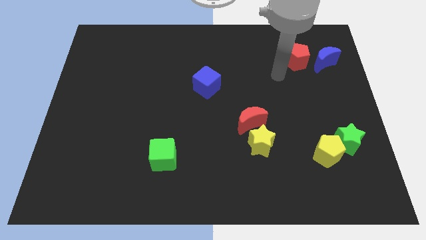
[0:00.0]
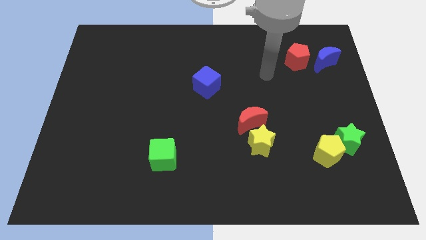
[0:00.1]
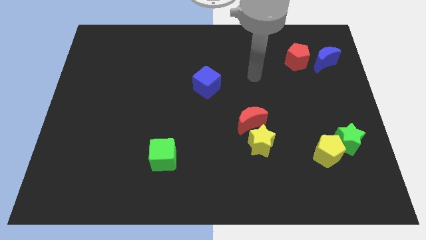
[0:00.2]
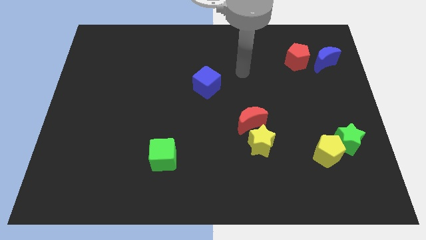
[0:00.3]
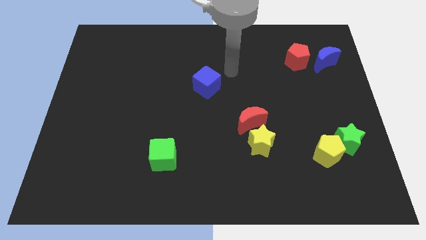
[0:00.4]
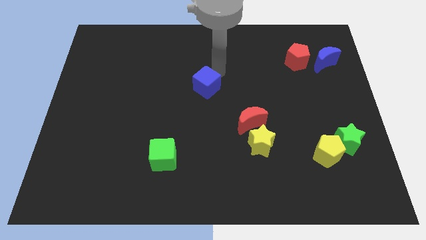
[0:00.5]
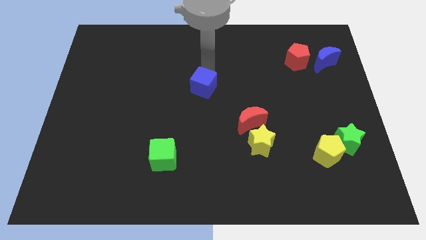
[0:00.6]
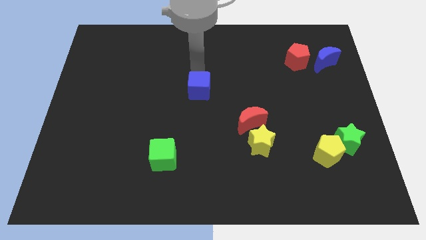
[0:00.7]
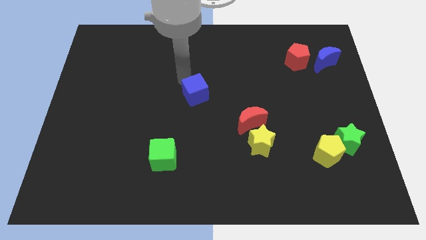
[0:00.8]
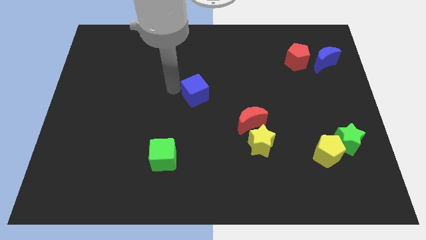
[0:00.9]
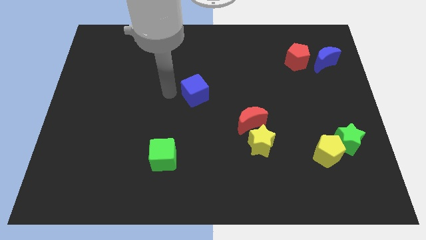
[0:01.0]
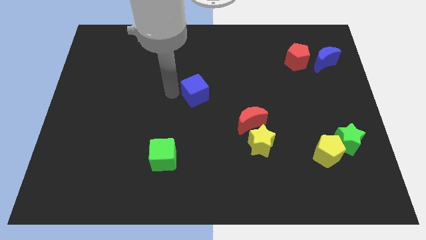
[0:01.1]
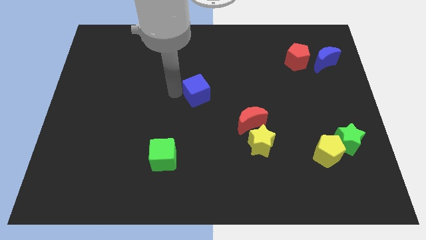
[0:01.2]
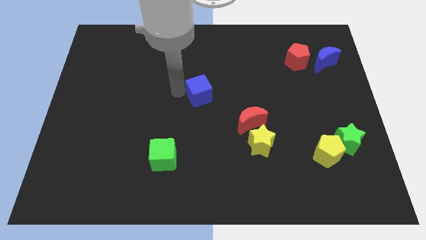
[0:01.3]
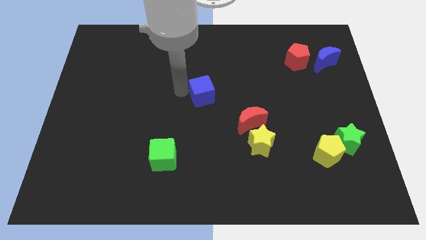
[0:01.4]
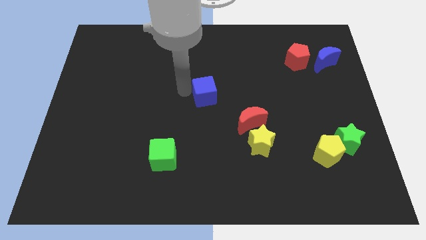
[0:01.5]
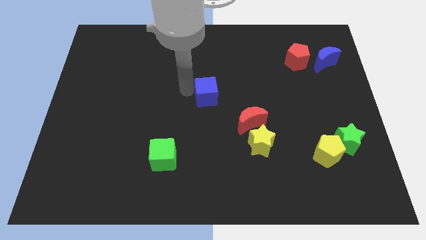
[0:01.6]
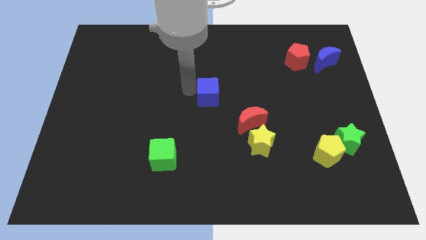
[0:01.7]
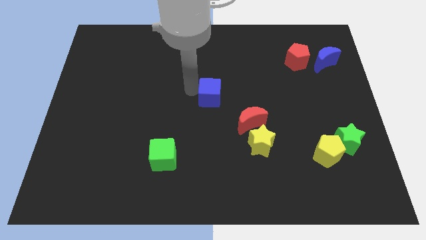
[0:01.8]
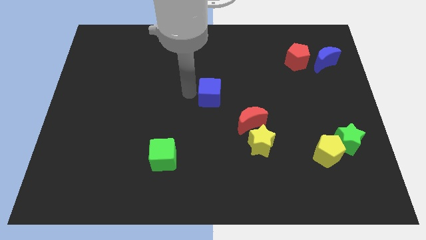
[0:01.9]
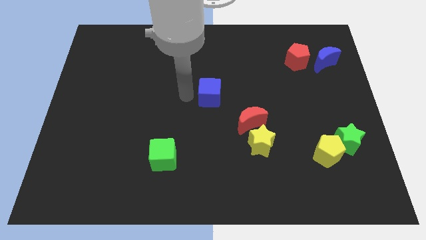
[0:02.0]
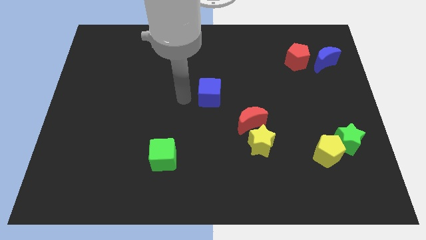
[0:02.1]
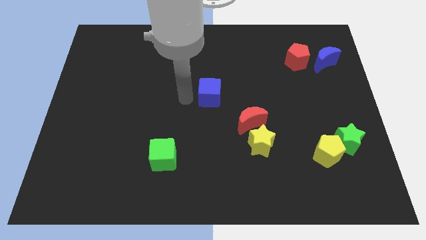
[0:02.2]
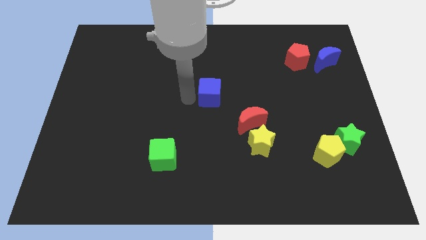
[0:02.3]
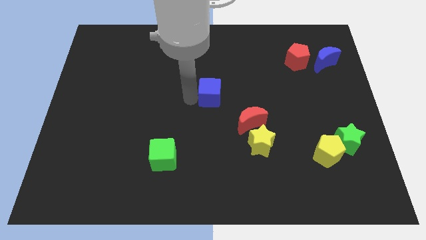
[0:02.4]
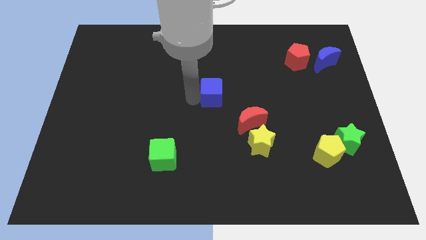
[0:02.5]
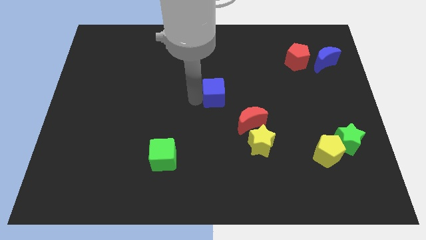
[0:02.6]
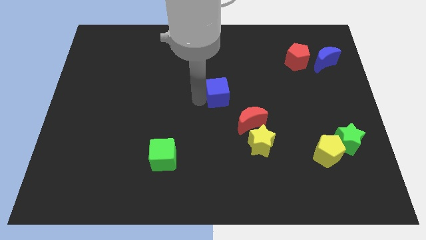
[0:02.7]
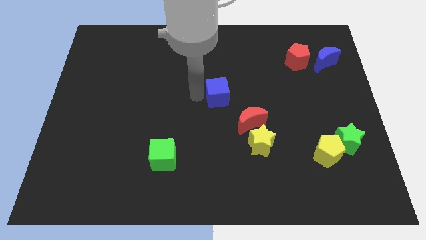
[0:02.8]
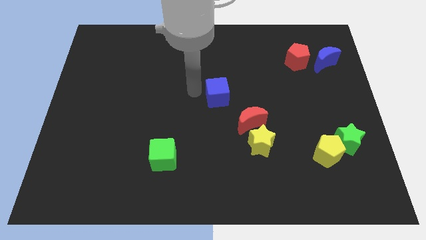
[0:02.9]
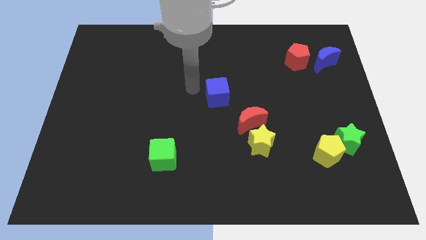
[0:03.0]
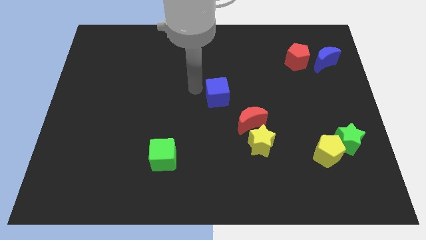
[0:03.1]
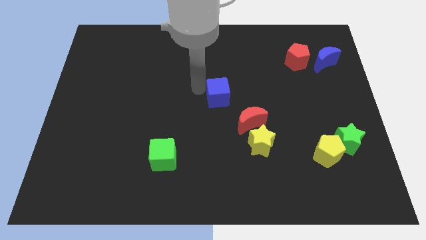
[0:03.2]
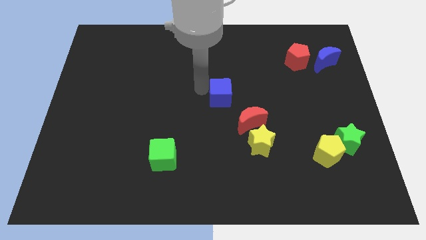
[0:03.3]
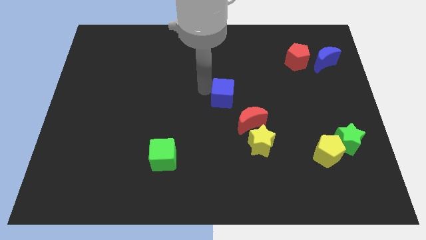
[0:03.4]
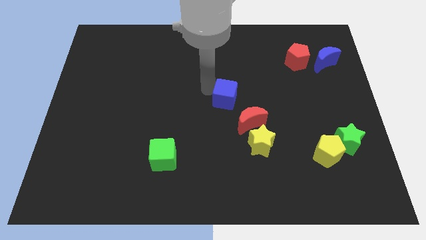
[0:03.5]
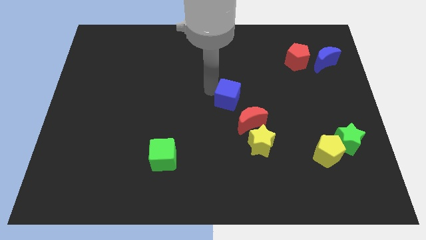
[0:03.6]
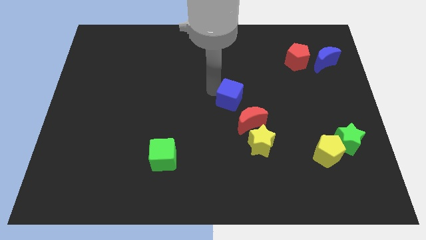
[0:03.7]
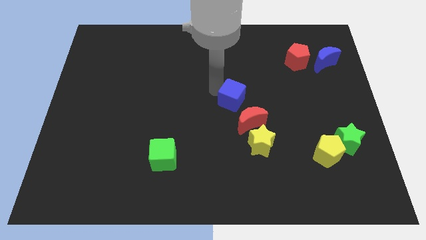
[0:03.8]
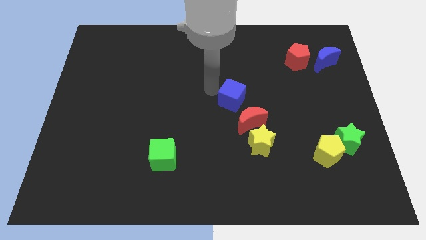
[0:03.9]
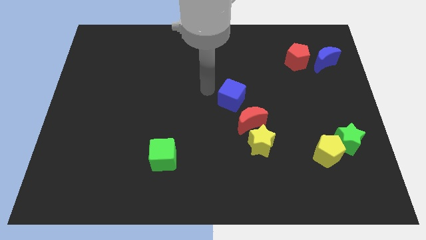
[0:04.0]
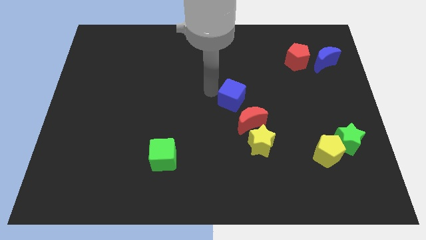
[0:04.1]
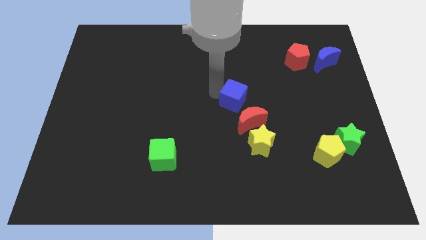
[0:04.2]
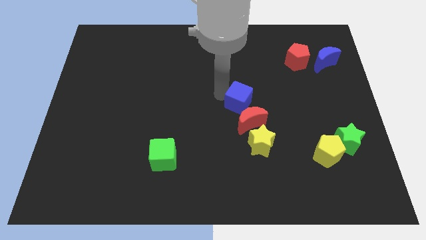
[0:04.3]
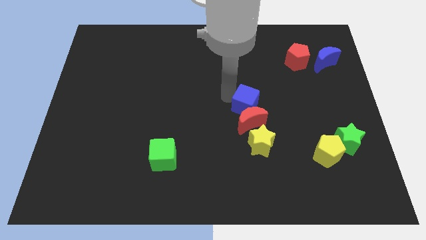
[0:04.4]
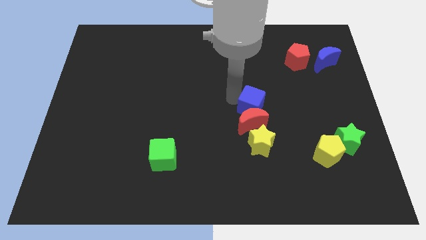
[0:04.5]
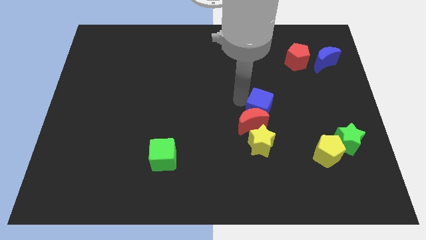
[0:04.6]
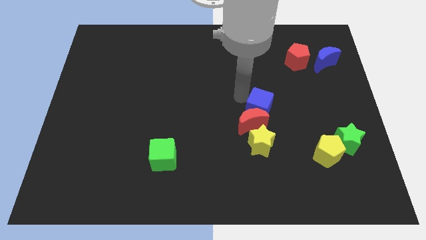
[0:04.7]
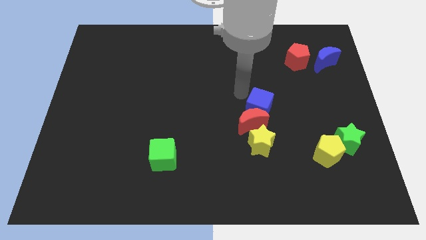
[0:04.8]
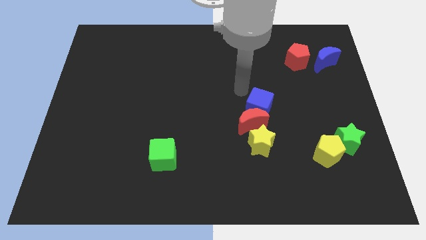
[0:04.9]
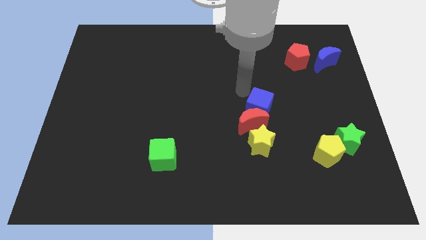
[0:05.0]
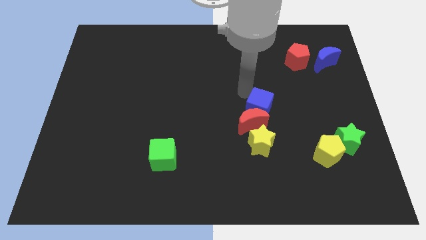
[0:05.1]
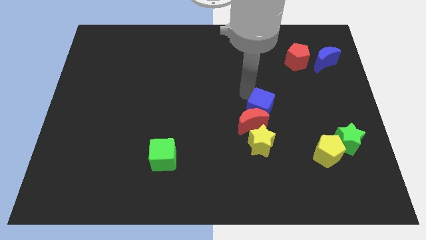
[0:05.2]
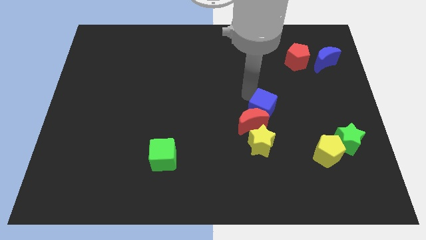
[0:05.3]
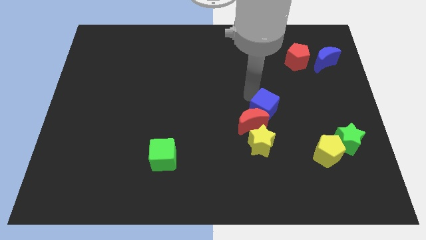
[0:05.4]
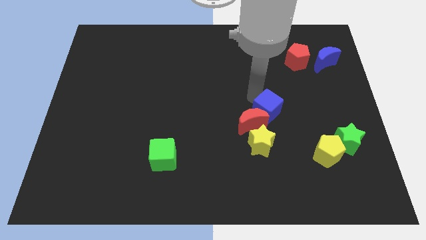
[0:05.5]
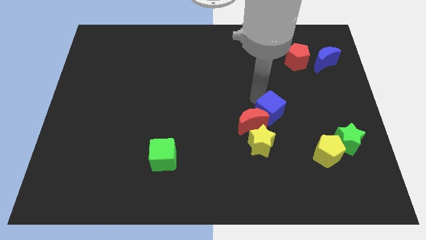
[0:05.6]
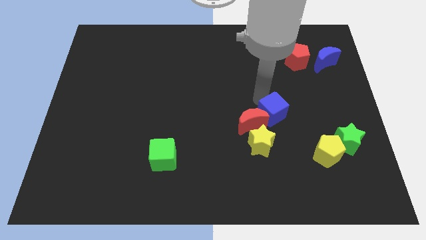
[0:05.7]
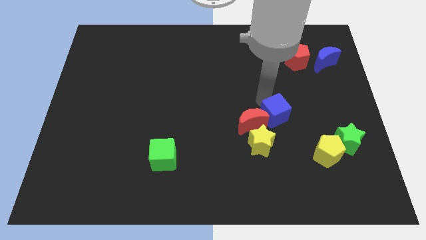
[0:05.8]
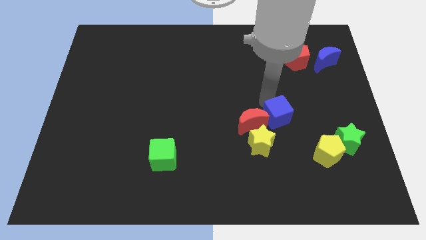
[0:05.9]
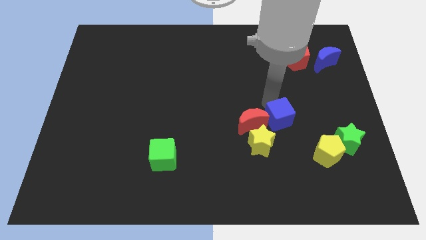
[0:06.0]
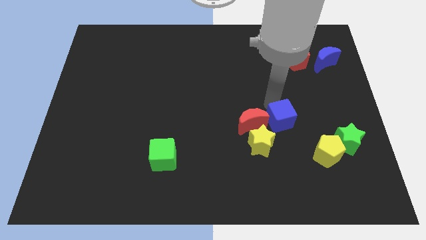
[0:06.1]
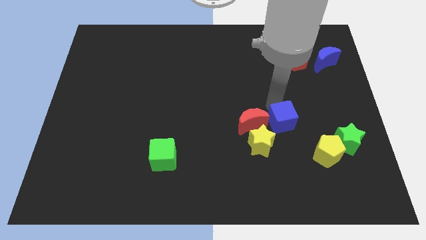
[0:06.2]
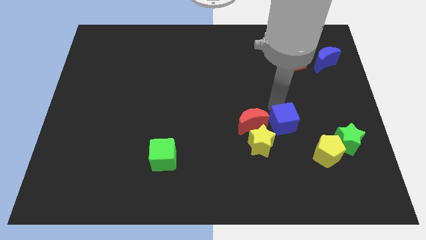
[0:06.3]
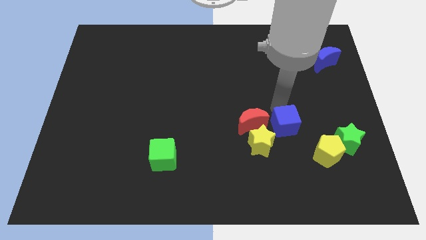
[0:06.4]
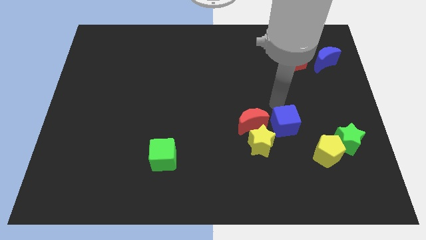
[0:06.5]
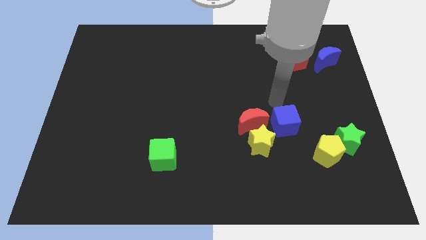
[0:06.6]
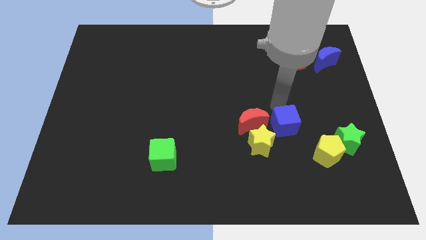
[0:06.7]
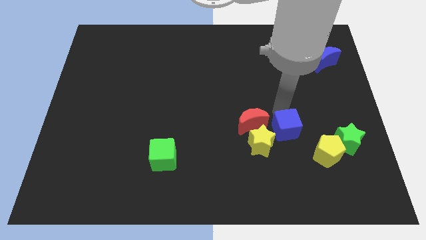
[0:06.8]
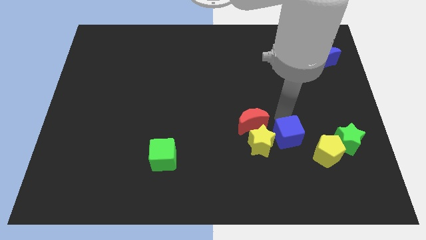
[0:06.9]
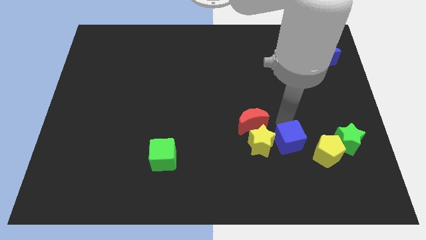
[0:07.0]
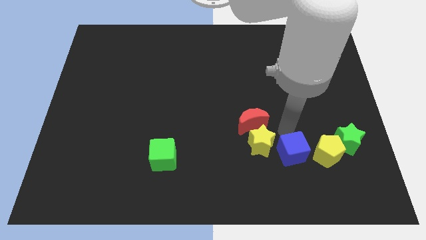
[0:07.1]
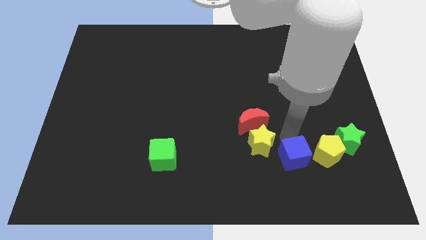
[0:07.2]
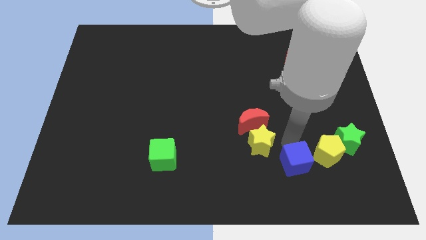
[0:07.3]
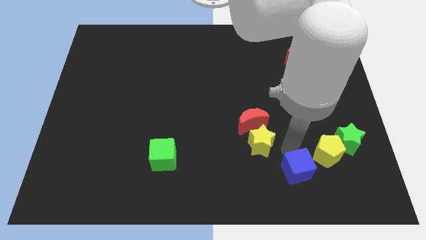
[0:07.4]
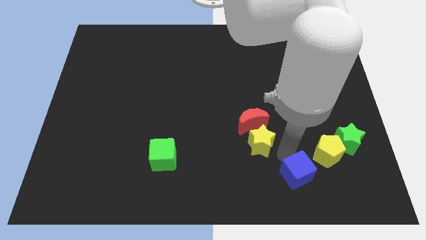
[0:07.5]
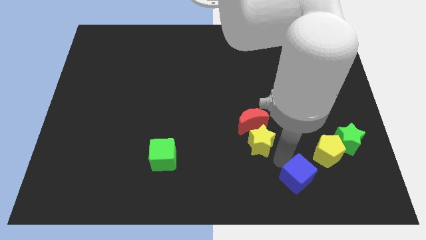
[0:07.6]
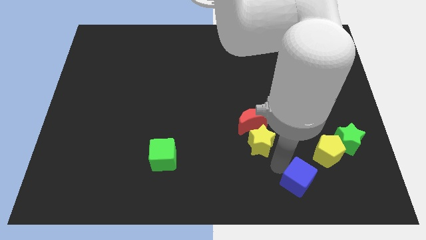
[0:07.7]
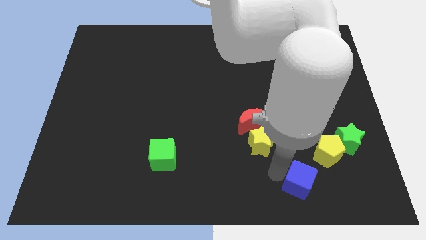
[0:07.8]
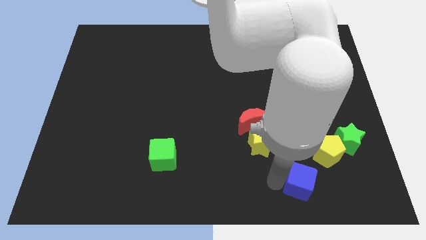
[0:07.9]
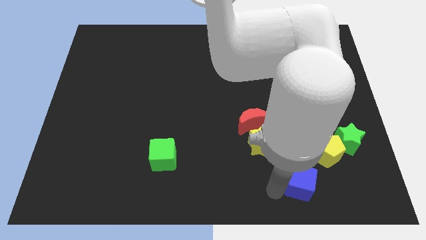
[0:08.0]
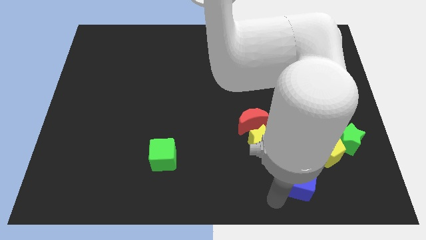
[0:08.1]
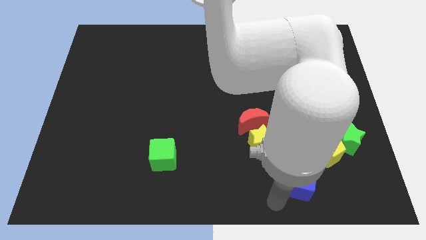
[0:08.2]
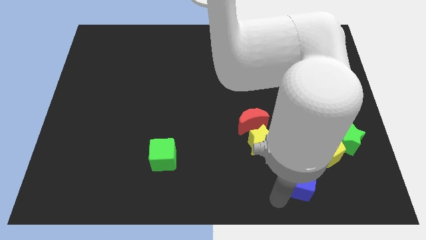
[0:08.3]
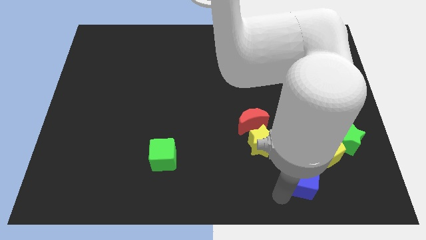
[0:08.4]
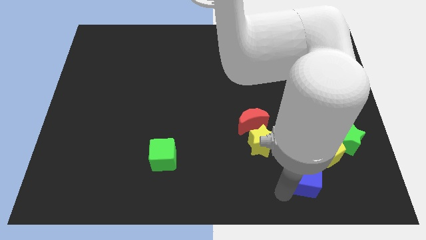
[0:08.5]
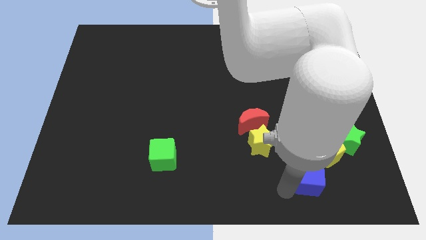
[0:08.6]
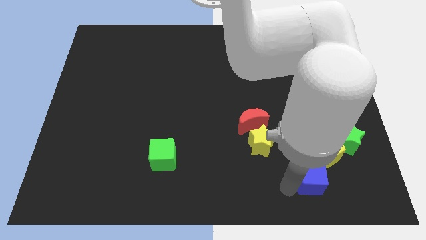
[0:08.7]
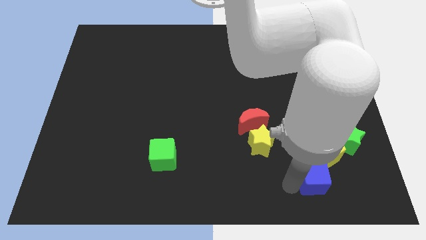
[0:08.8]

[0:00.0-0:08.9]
move the blue cube to the bottom left of the green star
